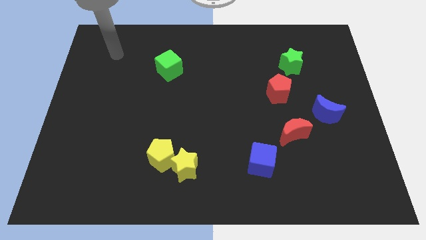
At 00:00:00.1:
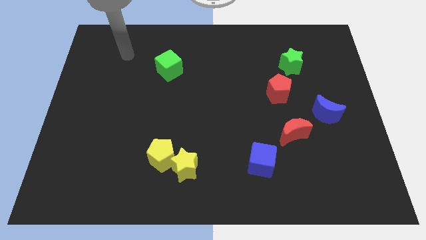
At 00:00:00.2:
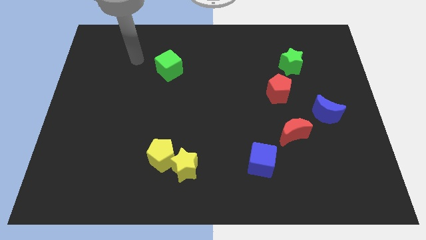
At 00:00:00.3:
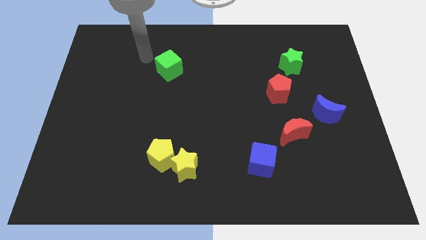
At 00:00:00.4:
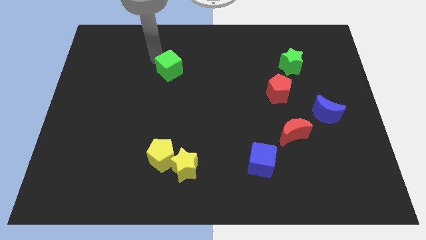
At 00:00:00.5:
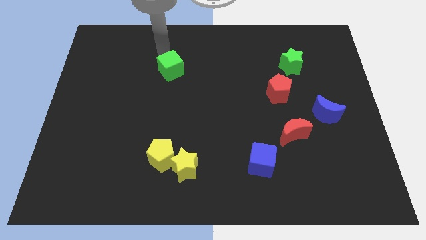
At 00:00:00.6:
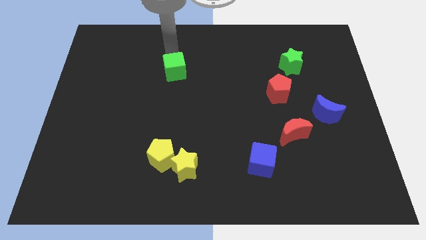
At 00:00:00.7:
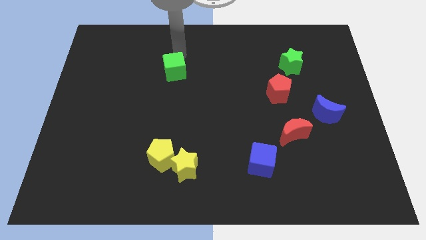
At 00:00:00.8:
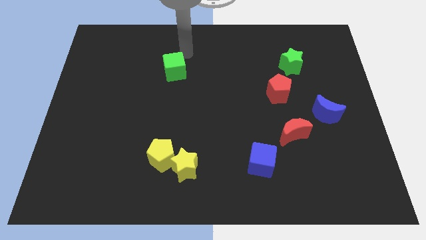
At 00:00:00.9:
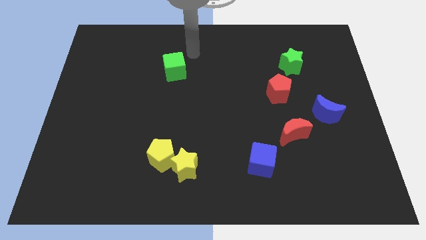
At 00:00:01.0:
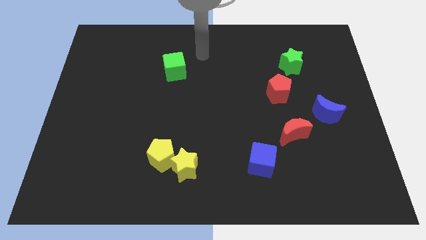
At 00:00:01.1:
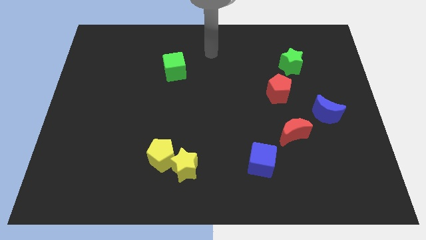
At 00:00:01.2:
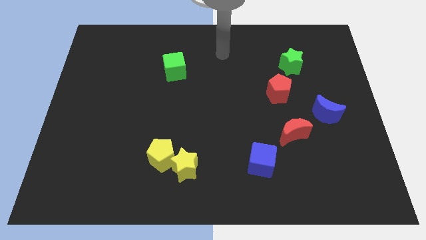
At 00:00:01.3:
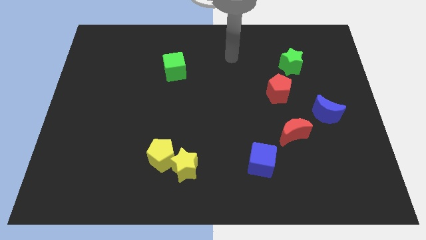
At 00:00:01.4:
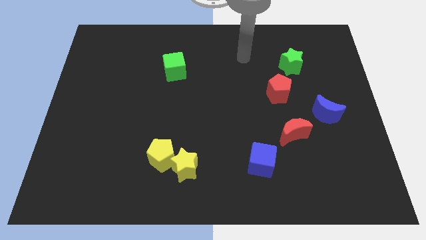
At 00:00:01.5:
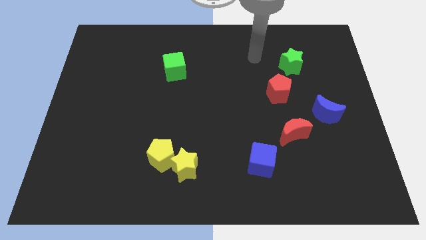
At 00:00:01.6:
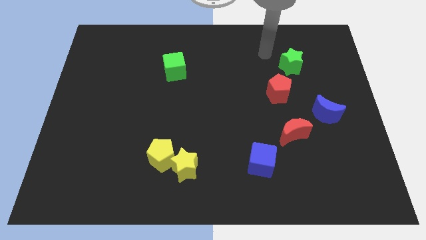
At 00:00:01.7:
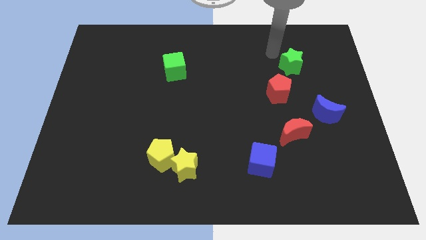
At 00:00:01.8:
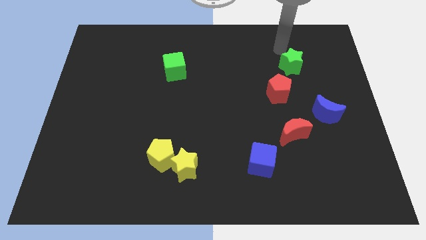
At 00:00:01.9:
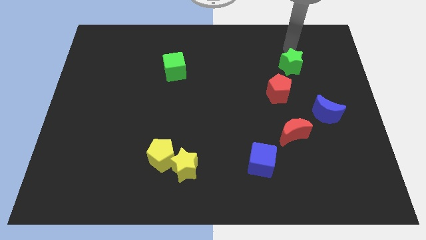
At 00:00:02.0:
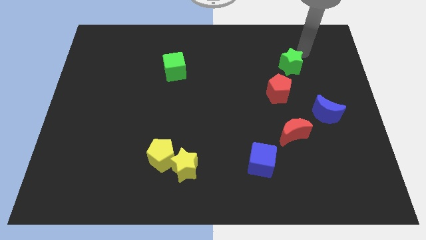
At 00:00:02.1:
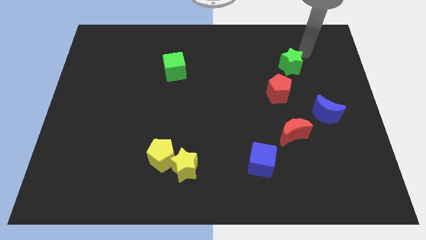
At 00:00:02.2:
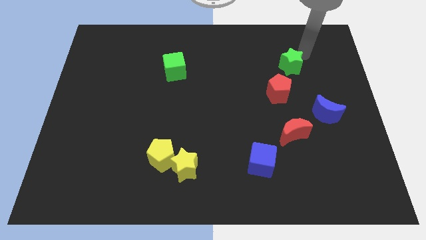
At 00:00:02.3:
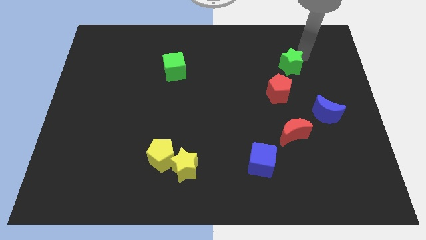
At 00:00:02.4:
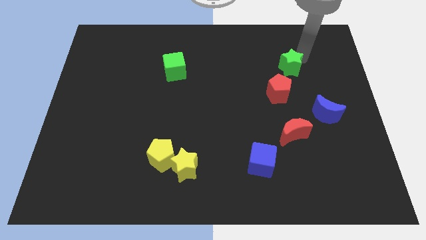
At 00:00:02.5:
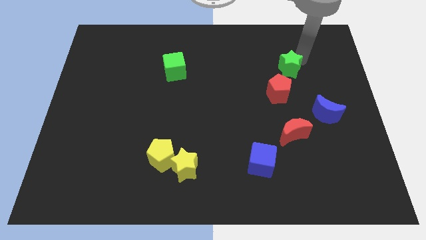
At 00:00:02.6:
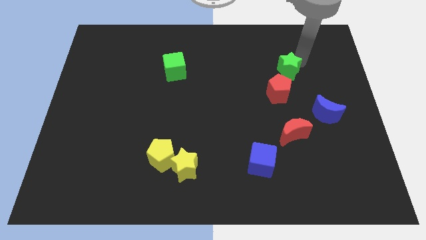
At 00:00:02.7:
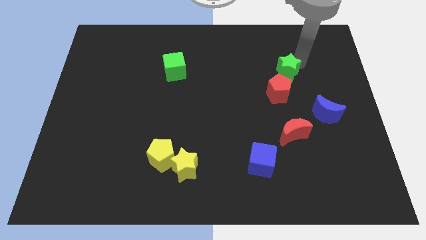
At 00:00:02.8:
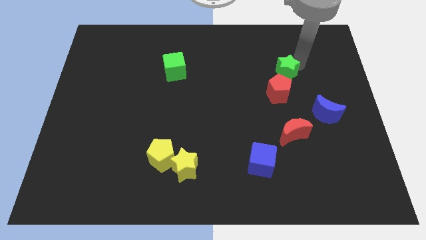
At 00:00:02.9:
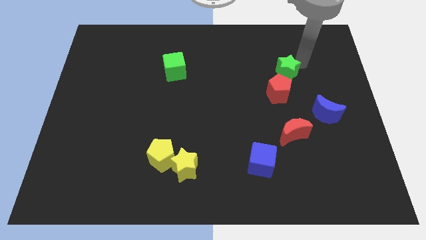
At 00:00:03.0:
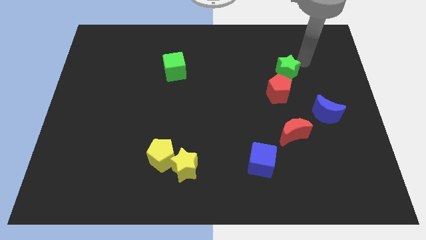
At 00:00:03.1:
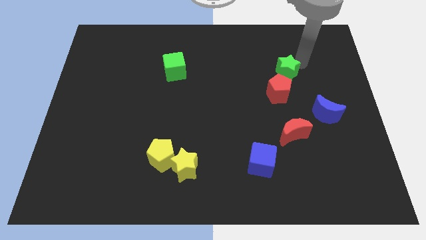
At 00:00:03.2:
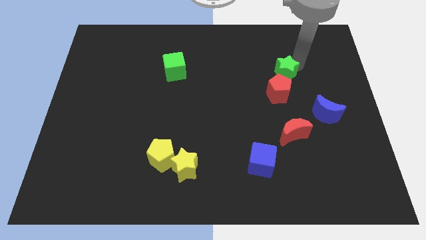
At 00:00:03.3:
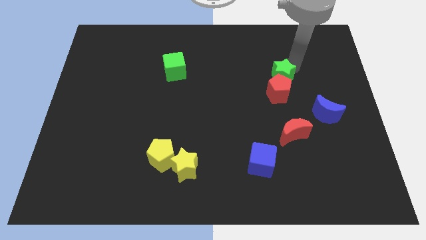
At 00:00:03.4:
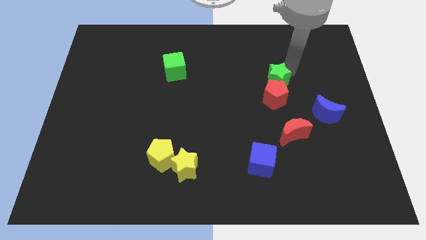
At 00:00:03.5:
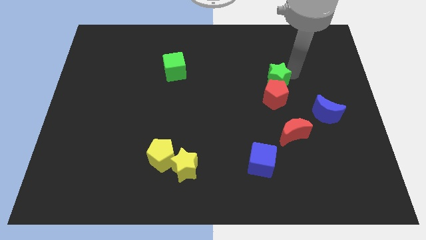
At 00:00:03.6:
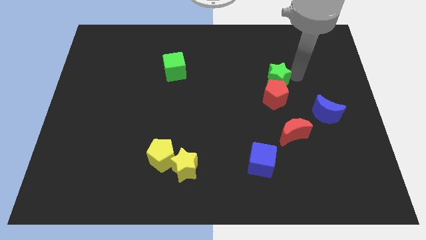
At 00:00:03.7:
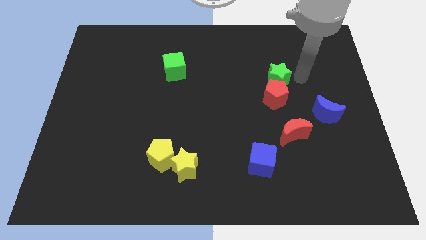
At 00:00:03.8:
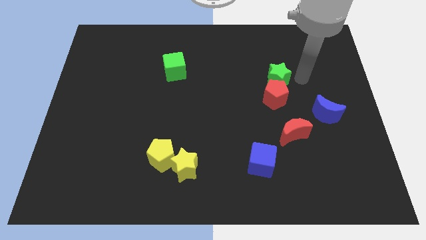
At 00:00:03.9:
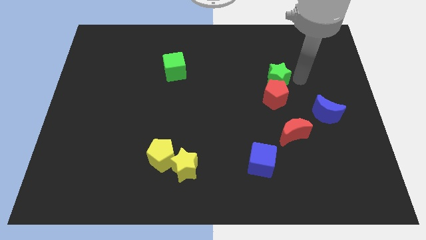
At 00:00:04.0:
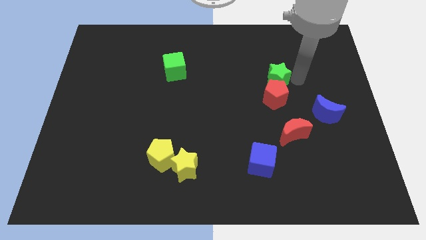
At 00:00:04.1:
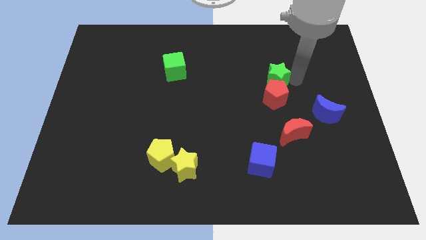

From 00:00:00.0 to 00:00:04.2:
slide the green star down and then left a little

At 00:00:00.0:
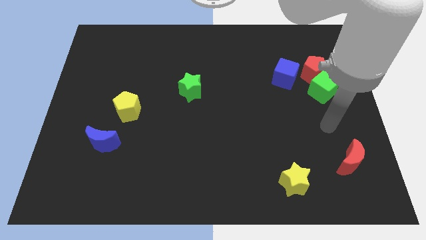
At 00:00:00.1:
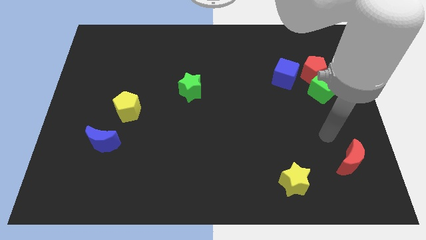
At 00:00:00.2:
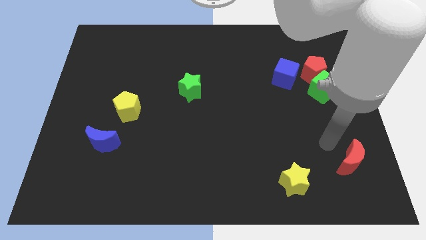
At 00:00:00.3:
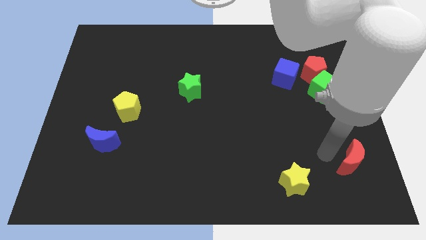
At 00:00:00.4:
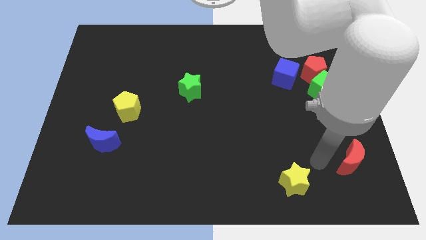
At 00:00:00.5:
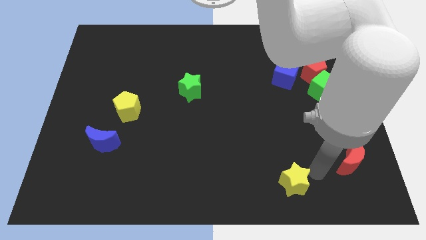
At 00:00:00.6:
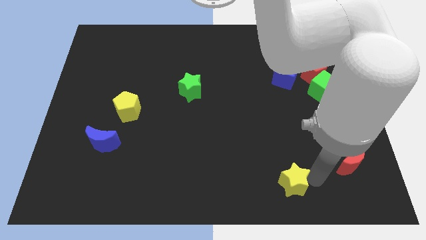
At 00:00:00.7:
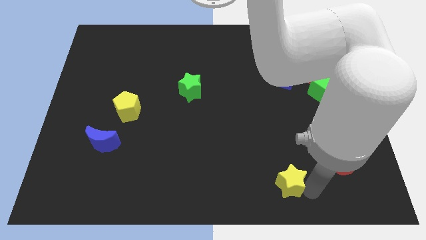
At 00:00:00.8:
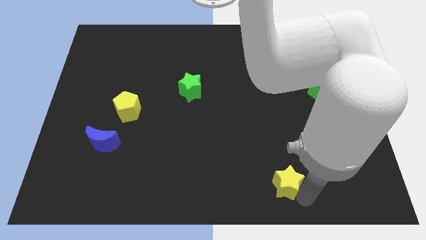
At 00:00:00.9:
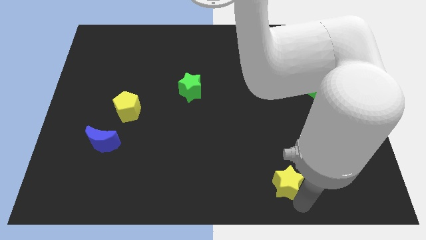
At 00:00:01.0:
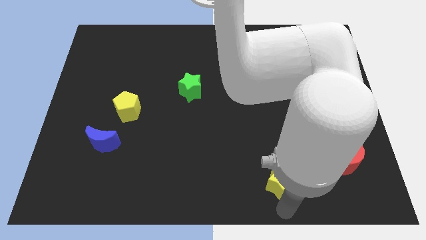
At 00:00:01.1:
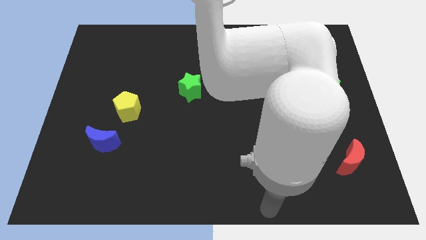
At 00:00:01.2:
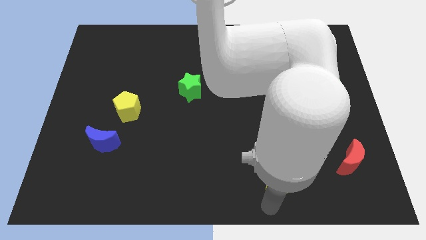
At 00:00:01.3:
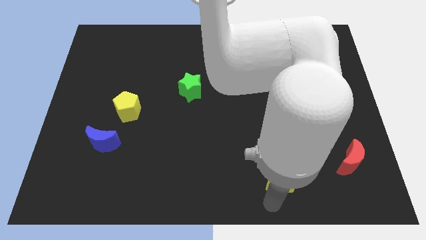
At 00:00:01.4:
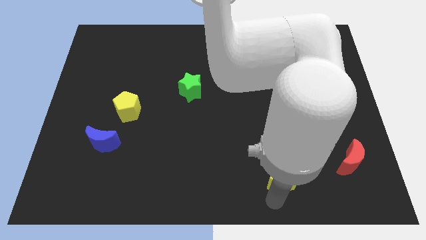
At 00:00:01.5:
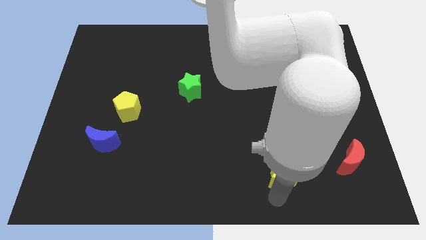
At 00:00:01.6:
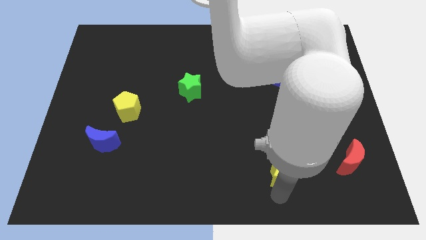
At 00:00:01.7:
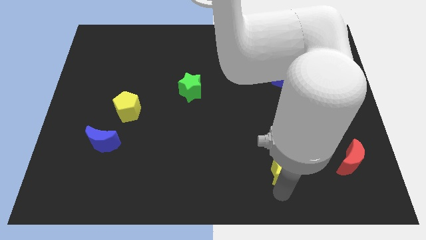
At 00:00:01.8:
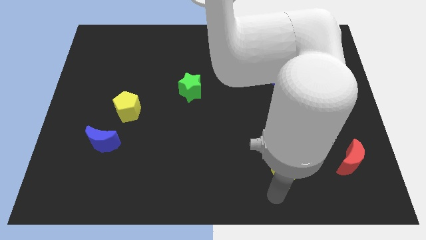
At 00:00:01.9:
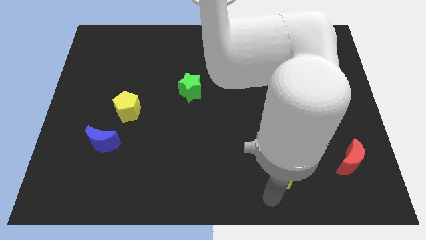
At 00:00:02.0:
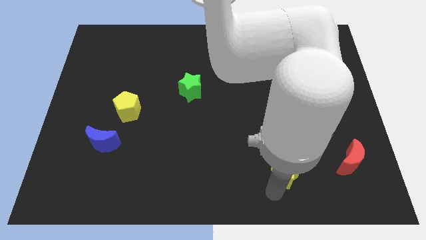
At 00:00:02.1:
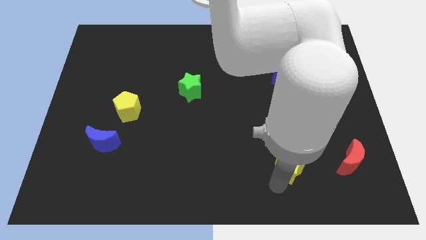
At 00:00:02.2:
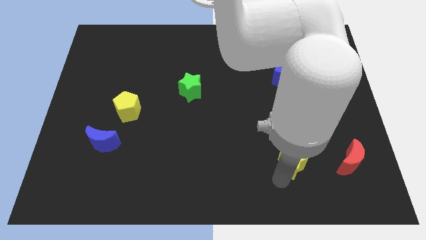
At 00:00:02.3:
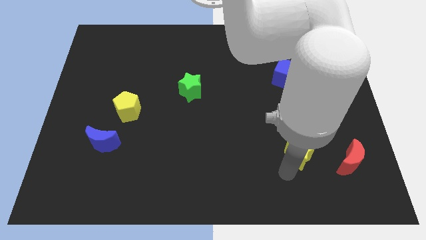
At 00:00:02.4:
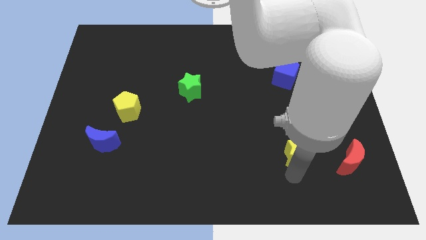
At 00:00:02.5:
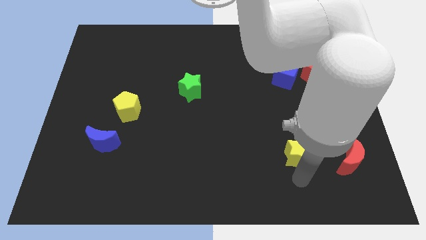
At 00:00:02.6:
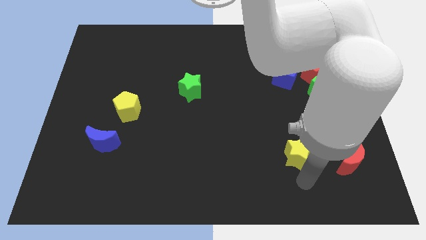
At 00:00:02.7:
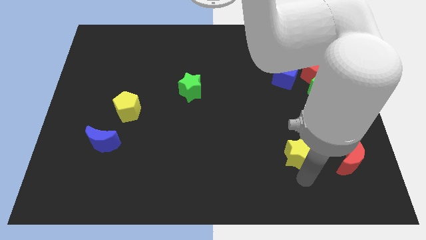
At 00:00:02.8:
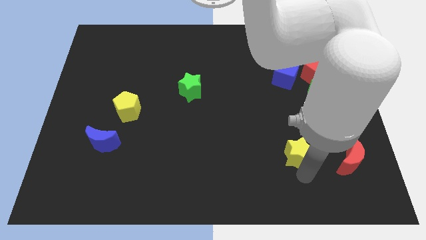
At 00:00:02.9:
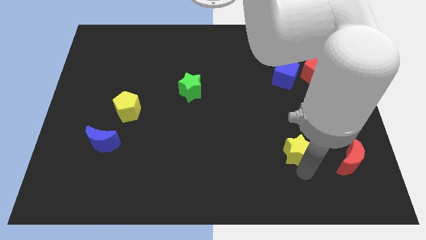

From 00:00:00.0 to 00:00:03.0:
slightly move the yellow star upwards

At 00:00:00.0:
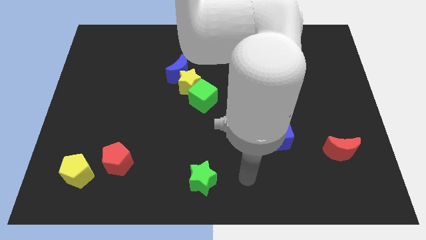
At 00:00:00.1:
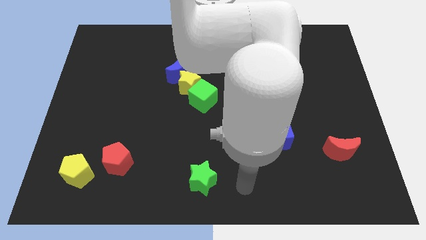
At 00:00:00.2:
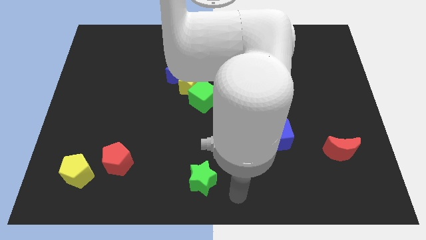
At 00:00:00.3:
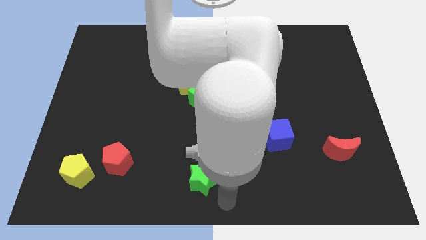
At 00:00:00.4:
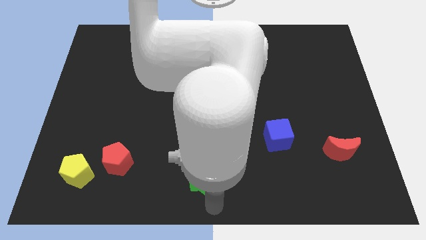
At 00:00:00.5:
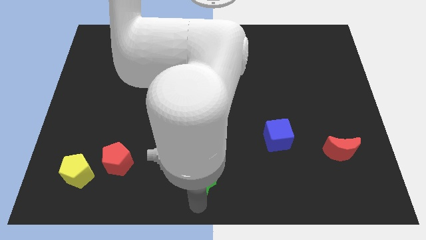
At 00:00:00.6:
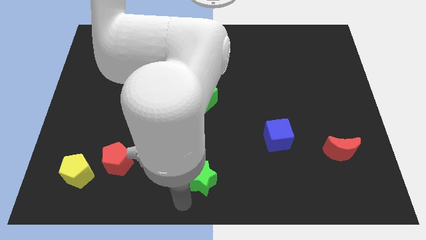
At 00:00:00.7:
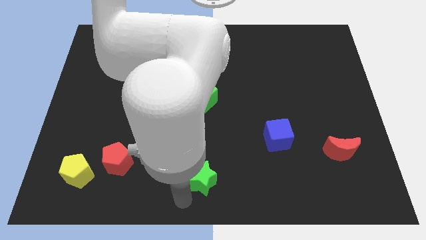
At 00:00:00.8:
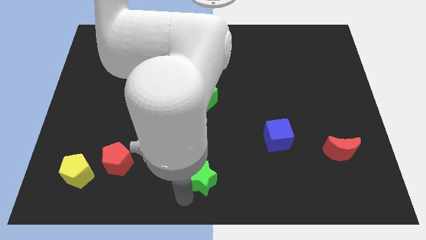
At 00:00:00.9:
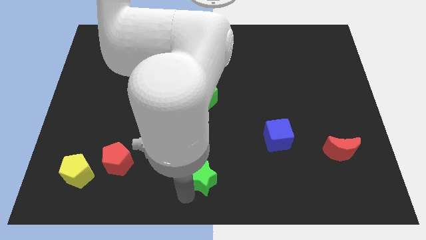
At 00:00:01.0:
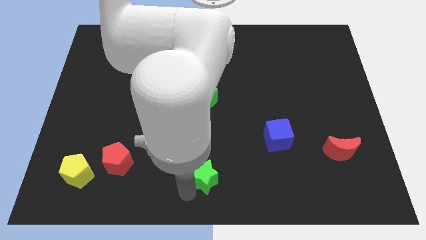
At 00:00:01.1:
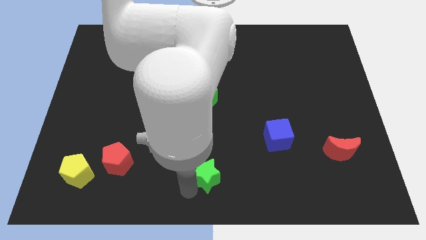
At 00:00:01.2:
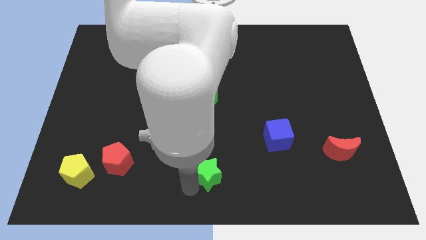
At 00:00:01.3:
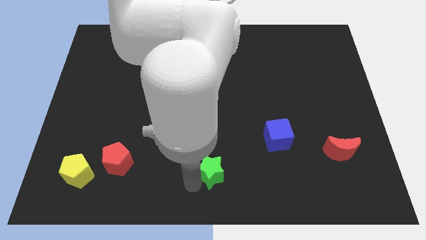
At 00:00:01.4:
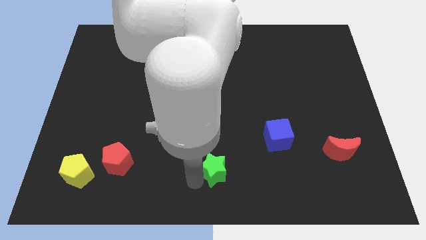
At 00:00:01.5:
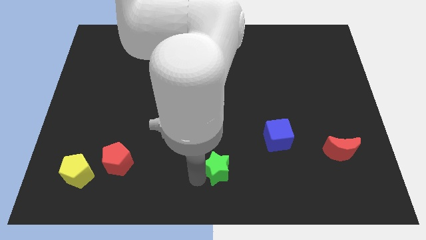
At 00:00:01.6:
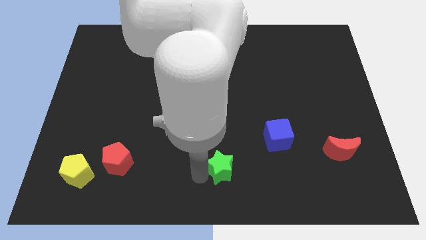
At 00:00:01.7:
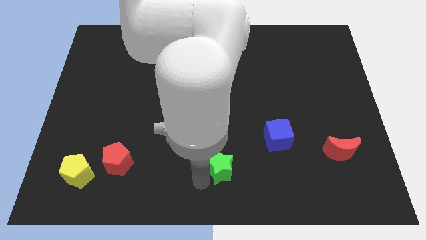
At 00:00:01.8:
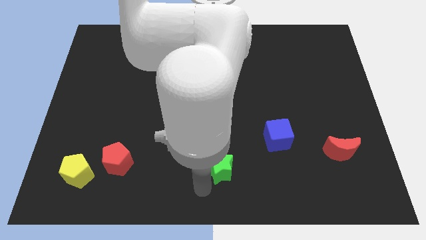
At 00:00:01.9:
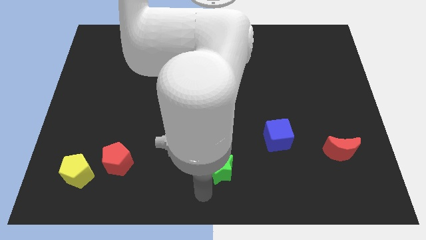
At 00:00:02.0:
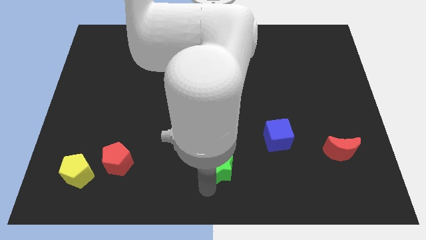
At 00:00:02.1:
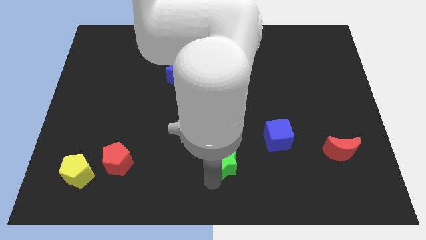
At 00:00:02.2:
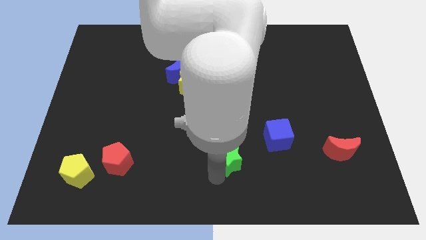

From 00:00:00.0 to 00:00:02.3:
push the green star up and right a bit
